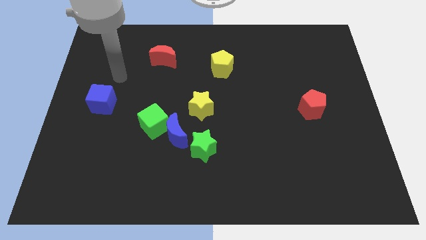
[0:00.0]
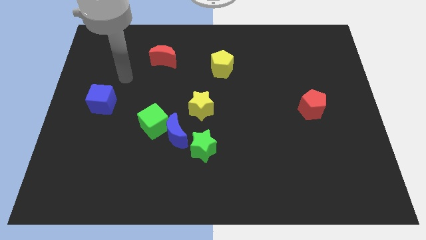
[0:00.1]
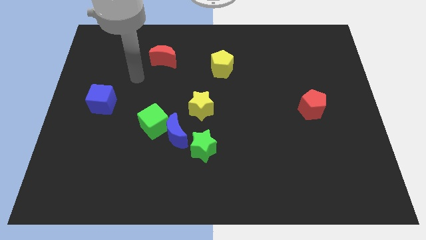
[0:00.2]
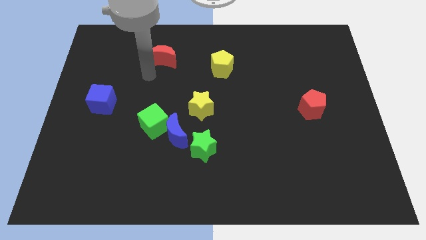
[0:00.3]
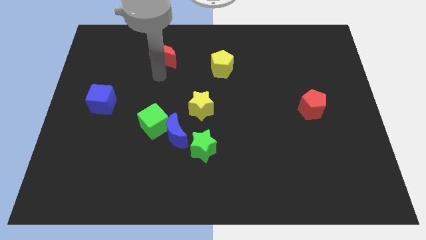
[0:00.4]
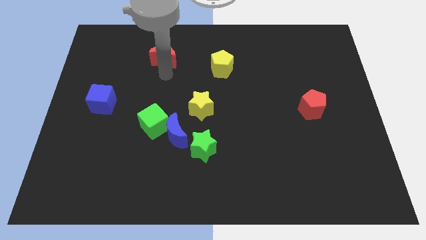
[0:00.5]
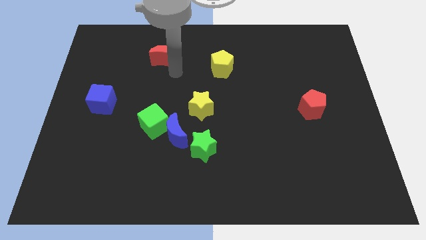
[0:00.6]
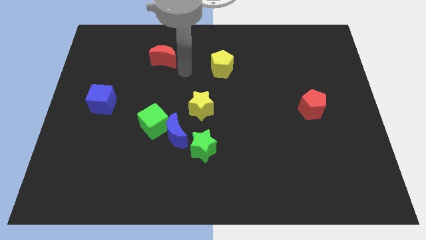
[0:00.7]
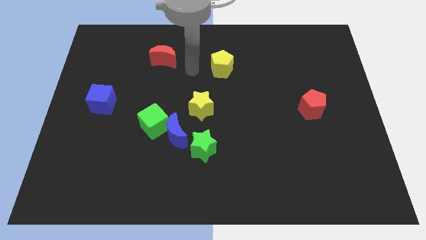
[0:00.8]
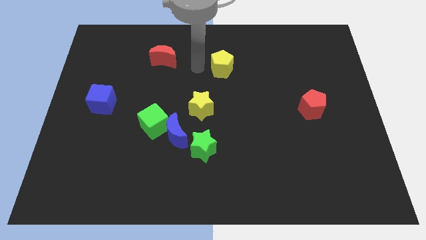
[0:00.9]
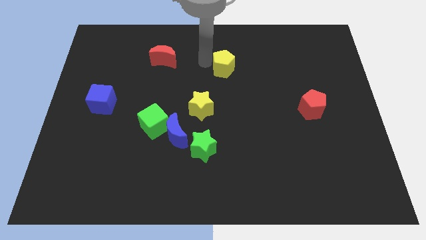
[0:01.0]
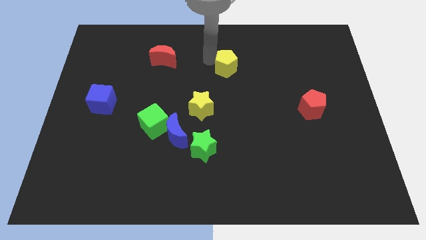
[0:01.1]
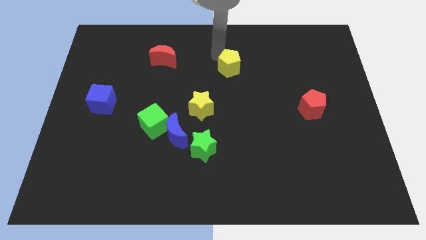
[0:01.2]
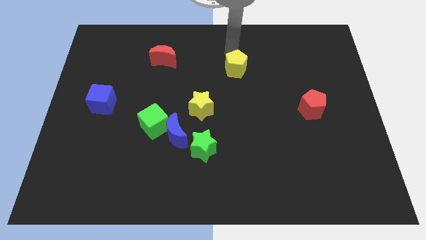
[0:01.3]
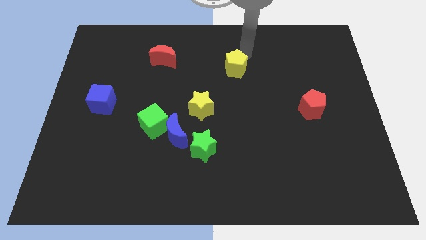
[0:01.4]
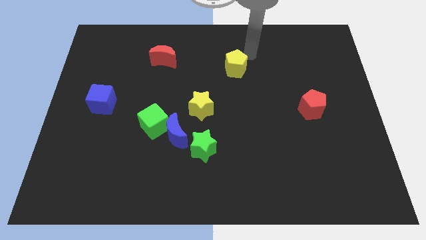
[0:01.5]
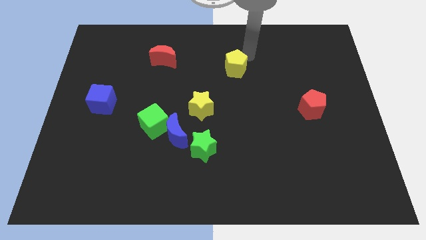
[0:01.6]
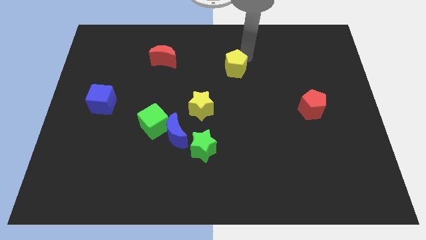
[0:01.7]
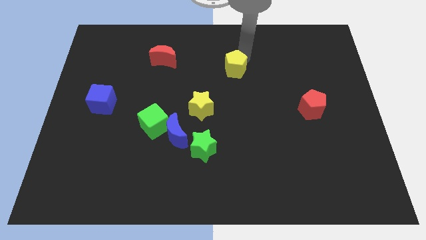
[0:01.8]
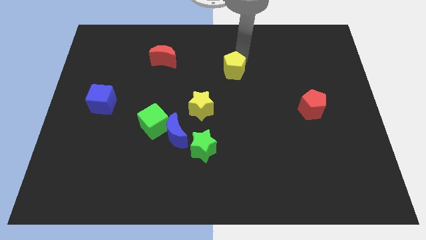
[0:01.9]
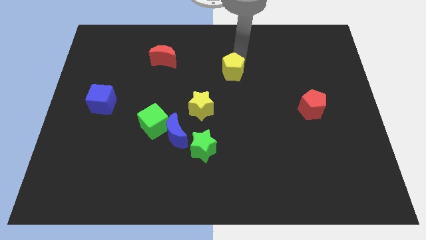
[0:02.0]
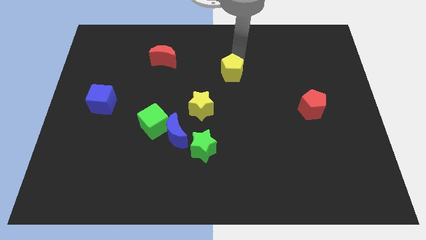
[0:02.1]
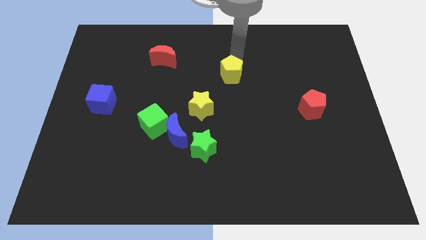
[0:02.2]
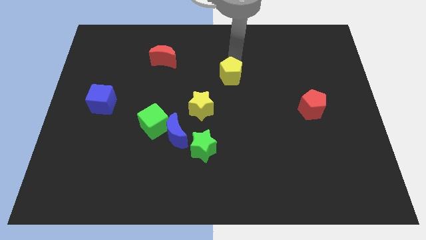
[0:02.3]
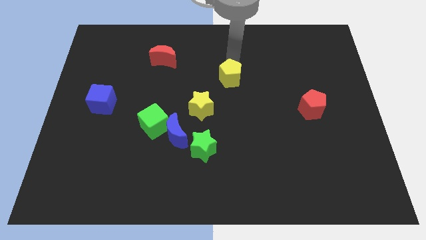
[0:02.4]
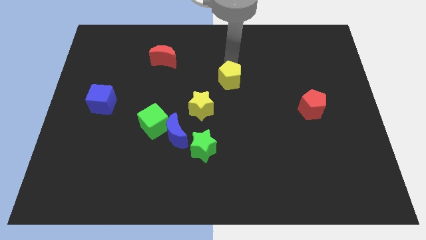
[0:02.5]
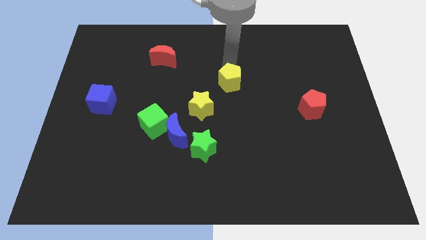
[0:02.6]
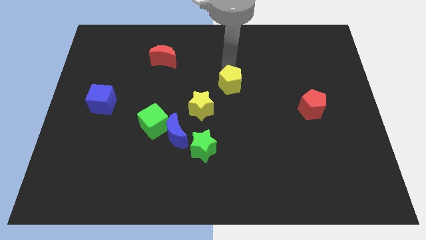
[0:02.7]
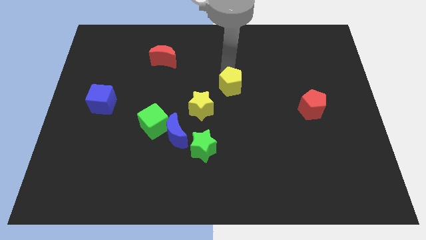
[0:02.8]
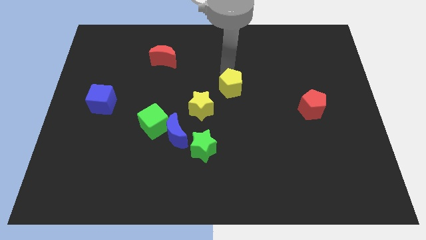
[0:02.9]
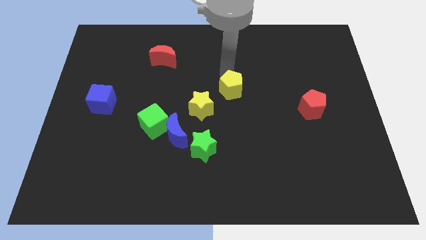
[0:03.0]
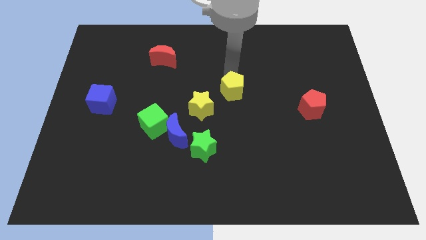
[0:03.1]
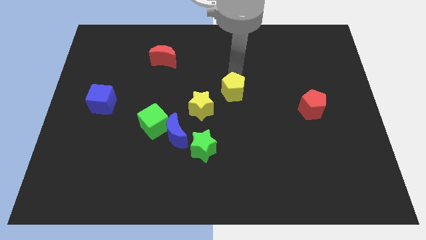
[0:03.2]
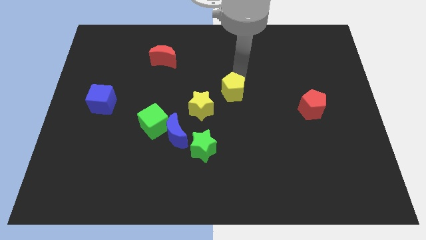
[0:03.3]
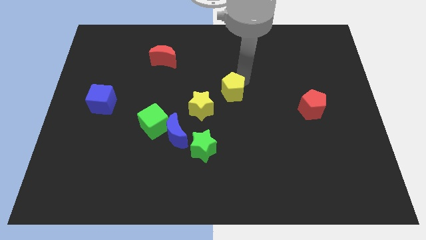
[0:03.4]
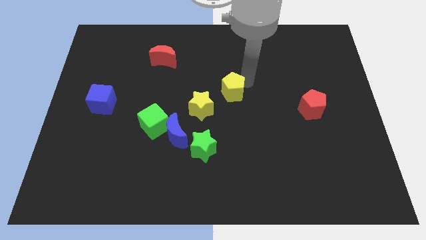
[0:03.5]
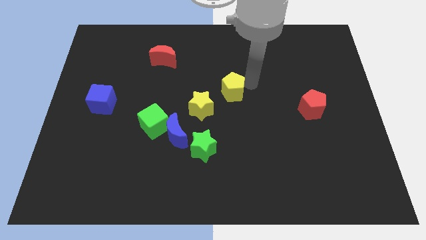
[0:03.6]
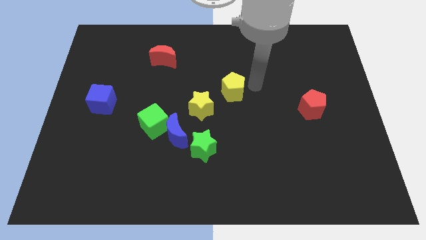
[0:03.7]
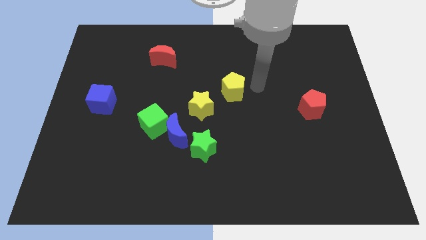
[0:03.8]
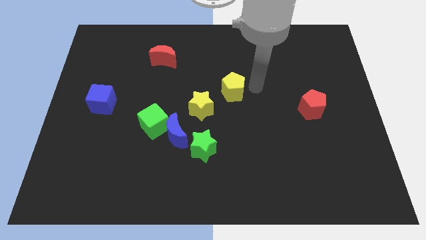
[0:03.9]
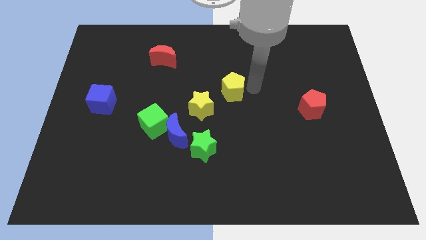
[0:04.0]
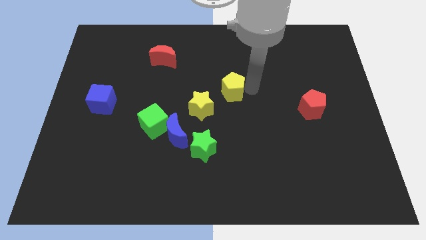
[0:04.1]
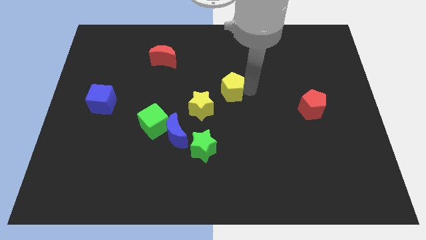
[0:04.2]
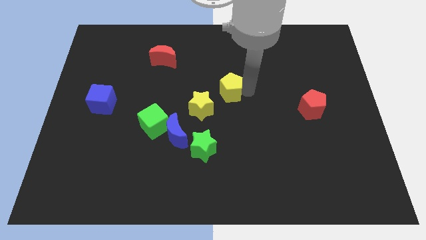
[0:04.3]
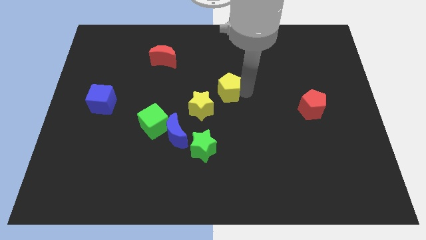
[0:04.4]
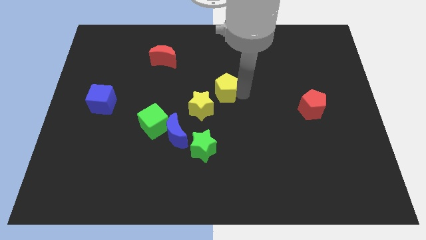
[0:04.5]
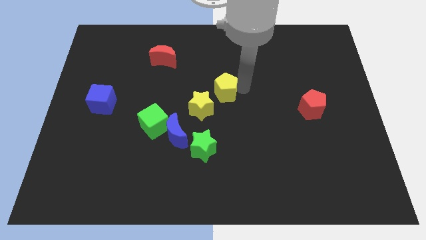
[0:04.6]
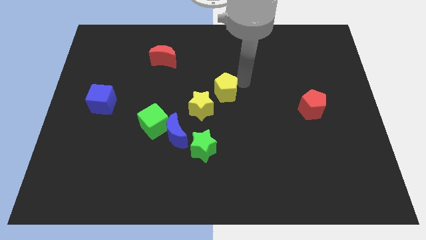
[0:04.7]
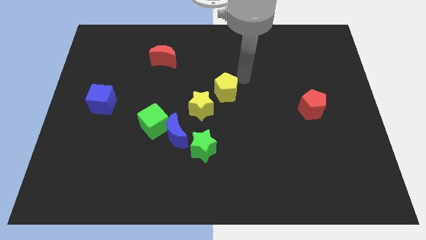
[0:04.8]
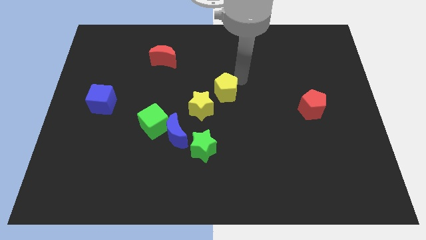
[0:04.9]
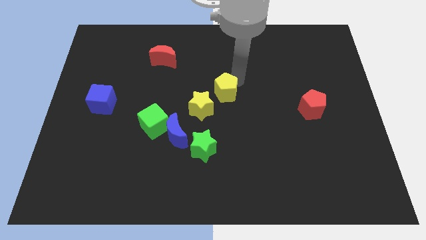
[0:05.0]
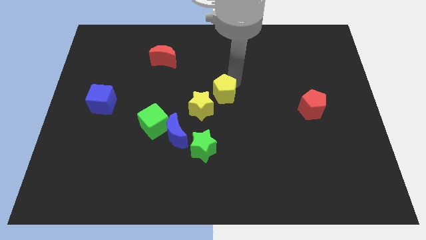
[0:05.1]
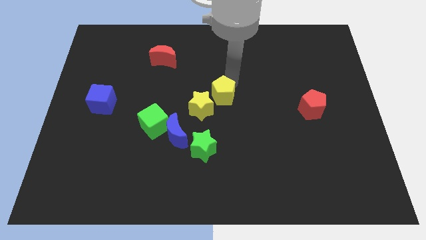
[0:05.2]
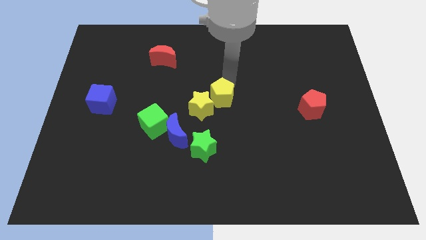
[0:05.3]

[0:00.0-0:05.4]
move the yellow pentagon close to the yellow star
